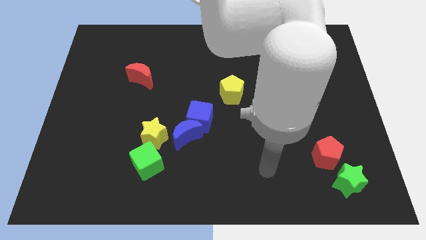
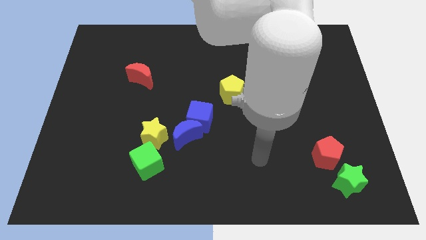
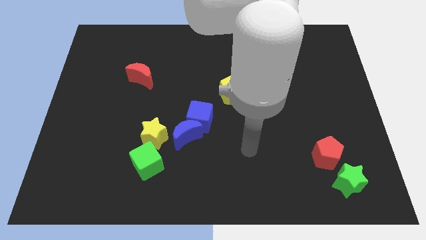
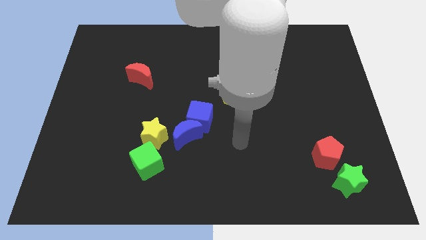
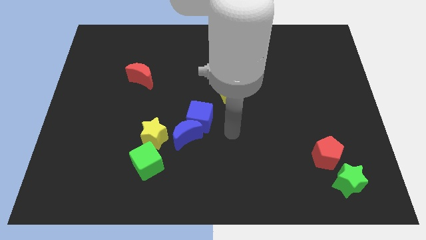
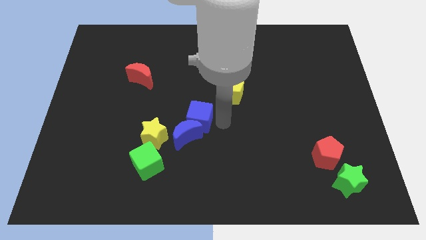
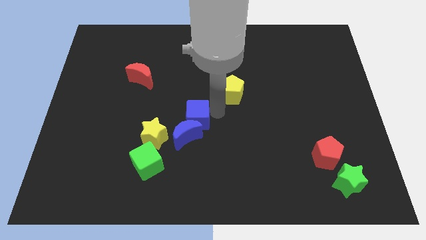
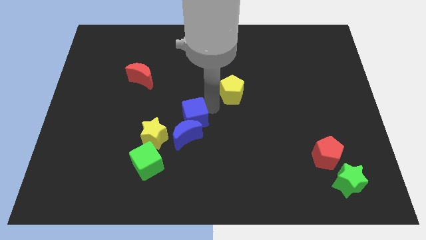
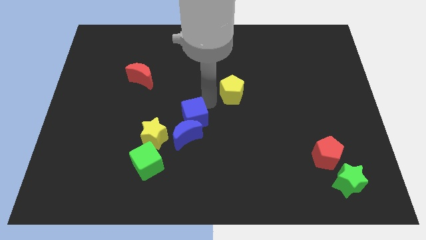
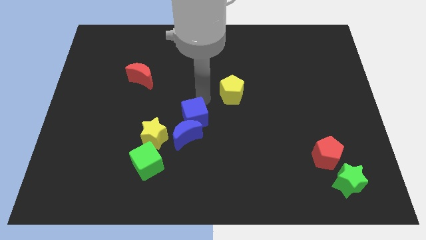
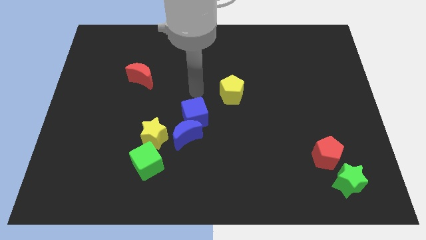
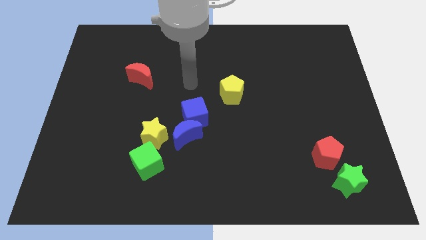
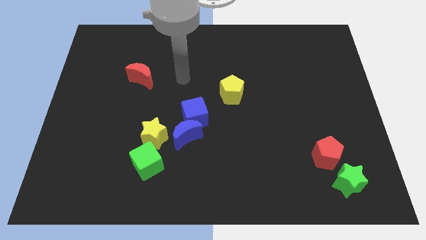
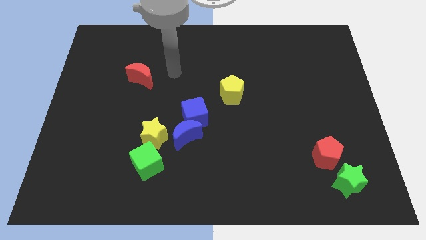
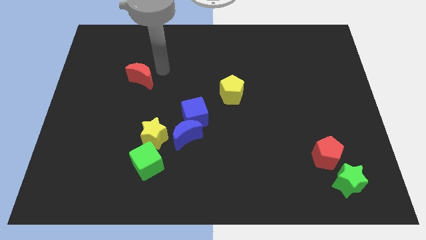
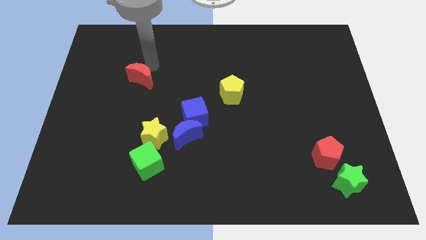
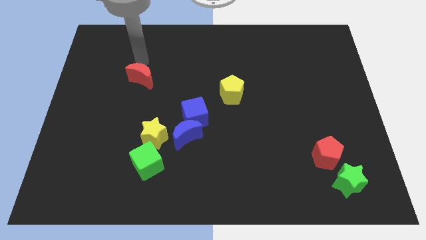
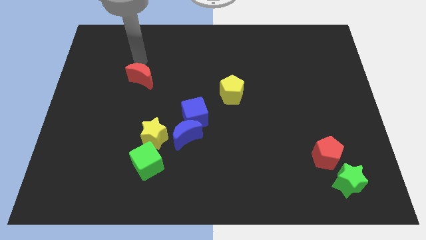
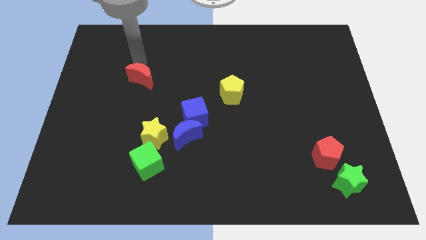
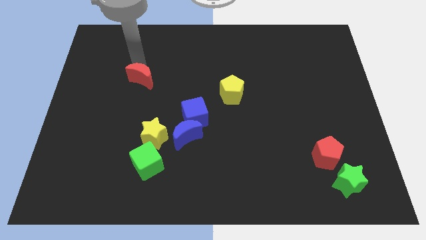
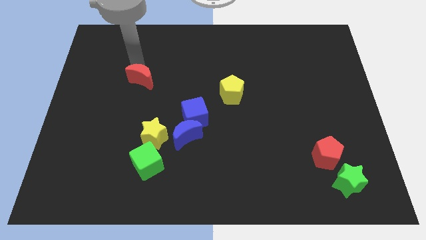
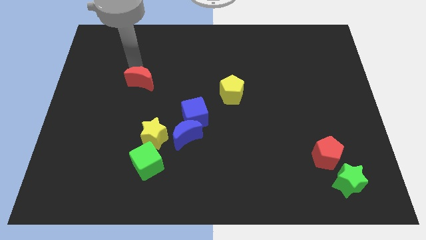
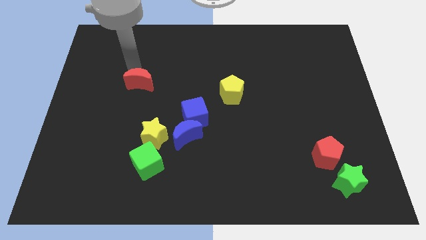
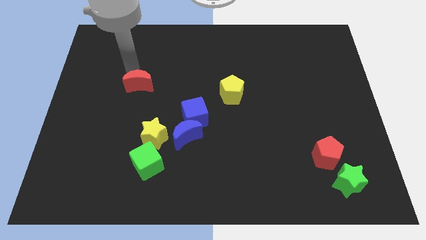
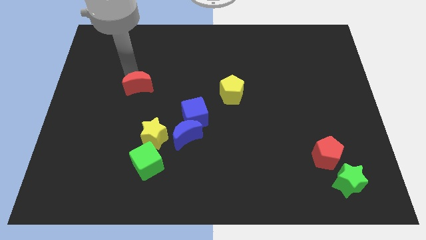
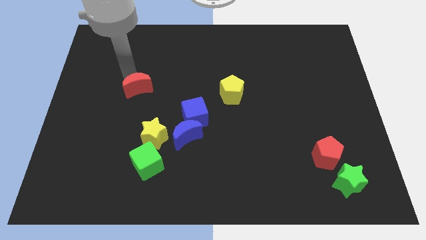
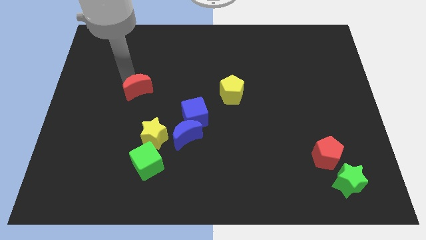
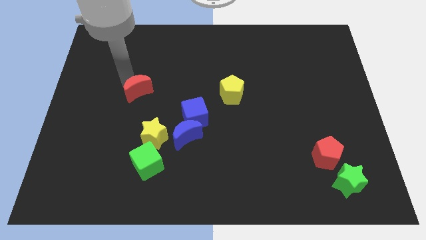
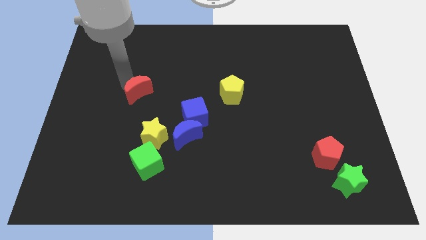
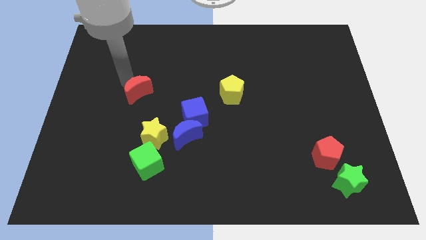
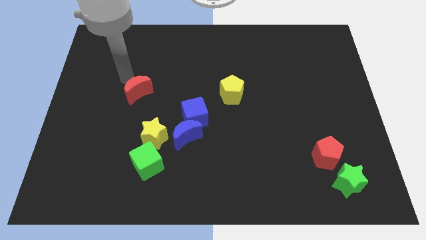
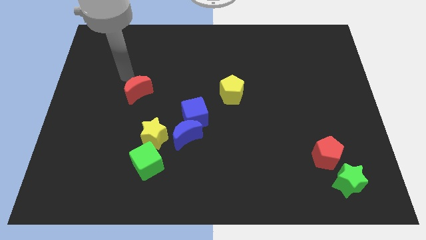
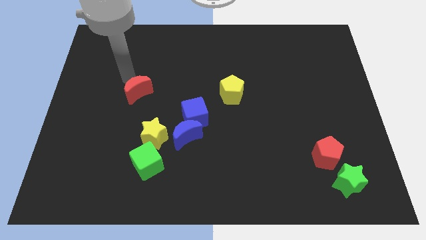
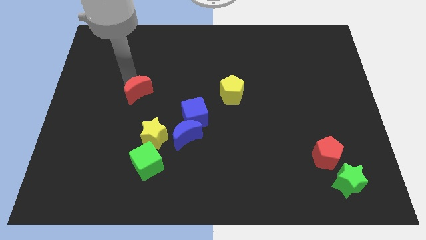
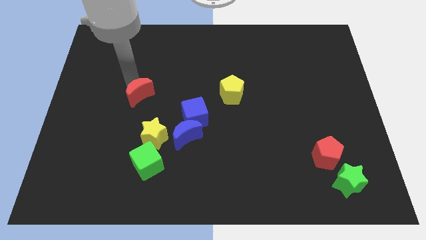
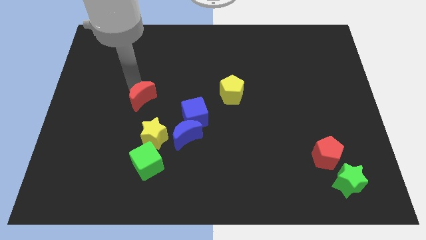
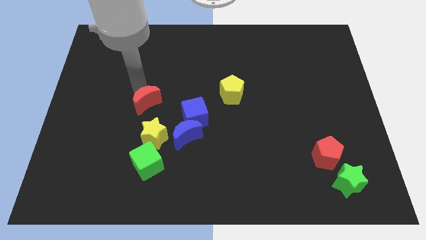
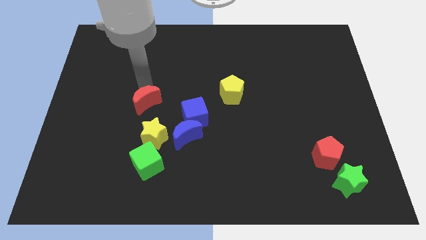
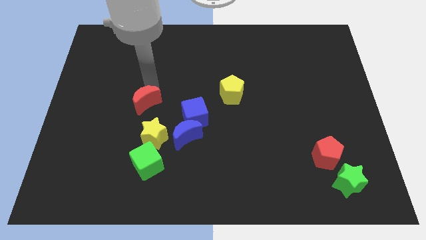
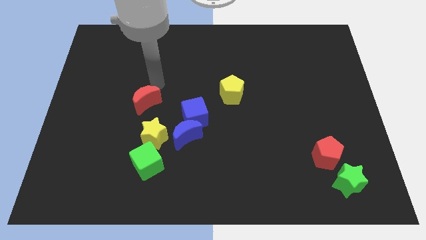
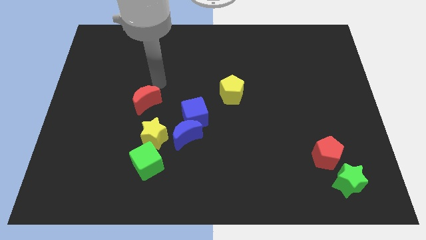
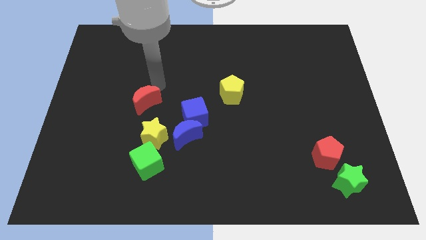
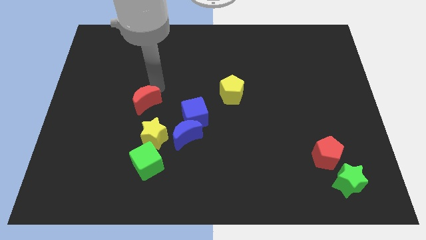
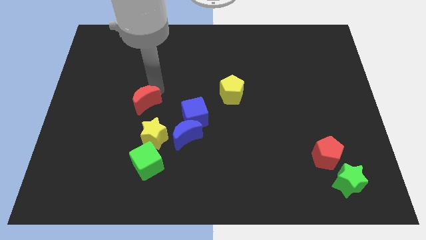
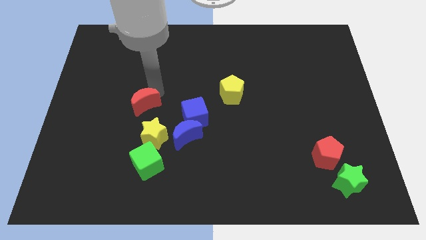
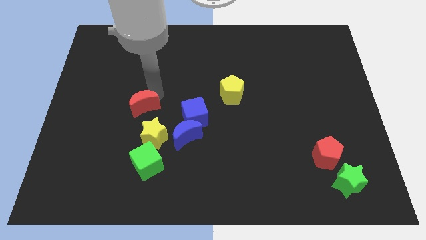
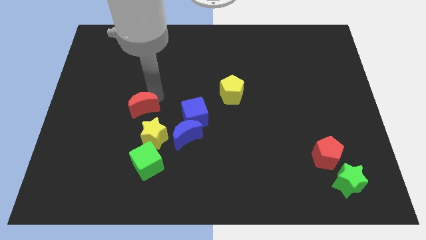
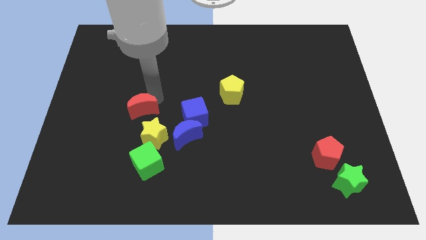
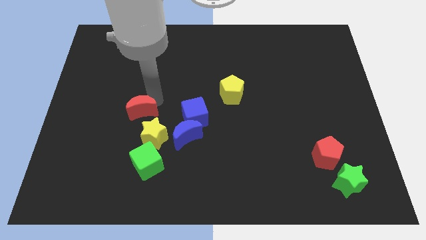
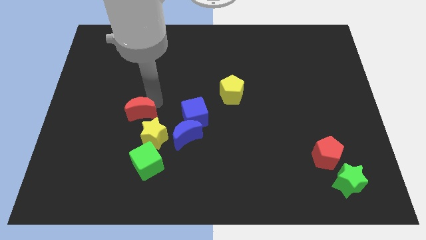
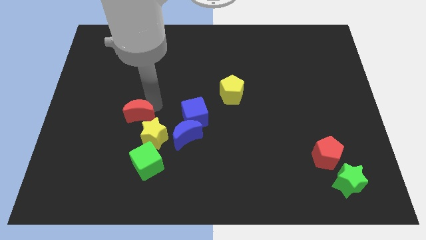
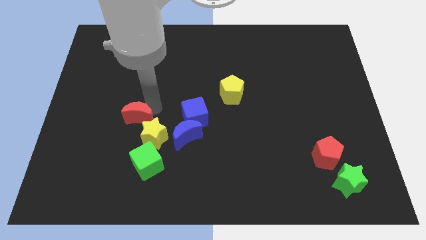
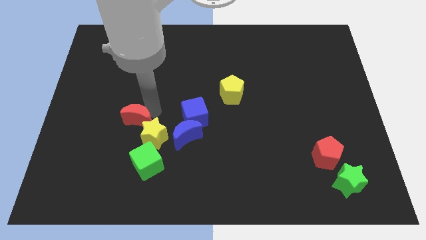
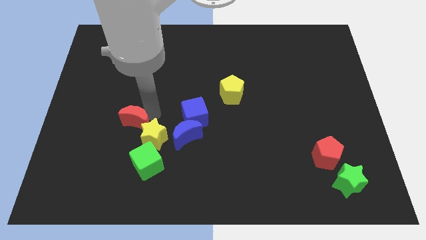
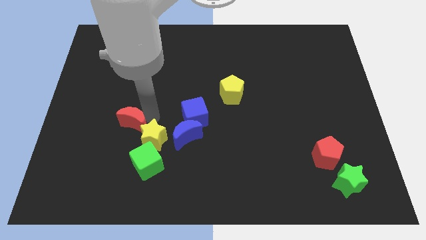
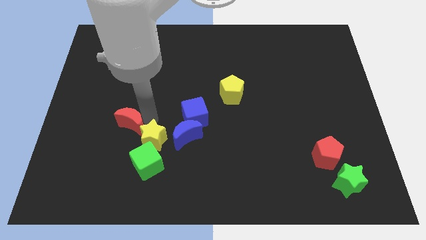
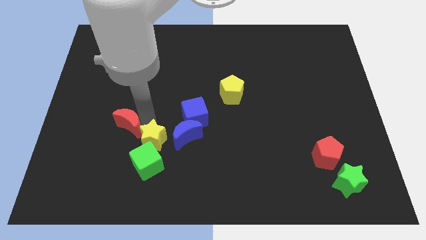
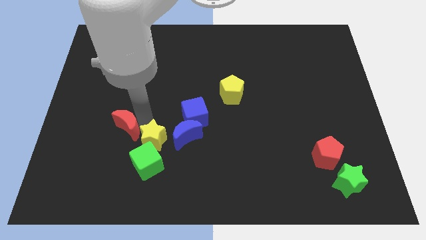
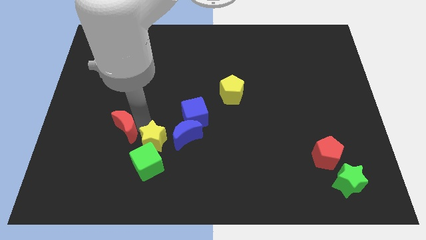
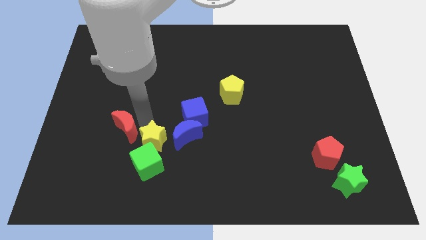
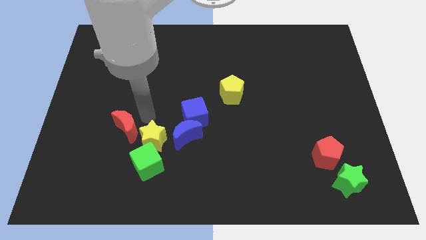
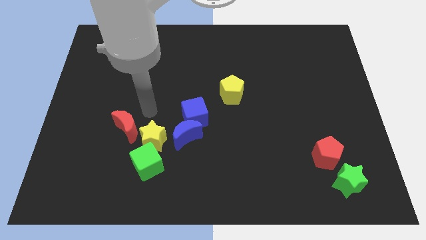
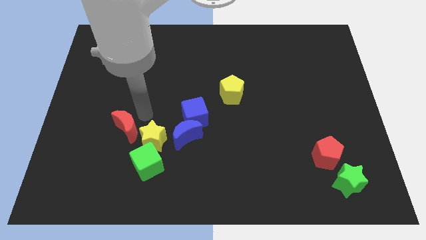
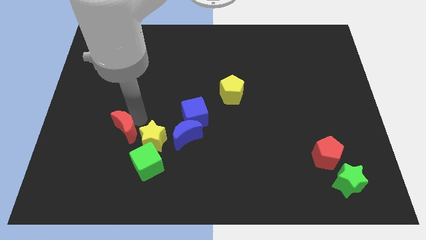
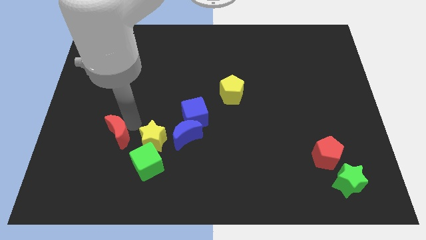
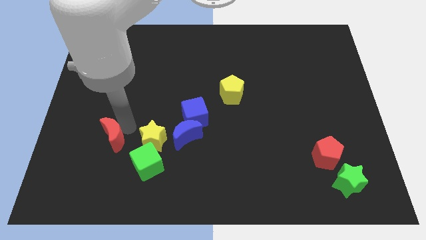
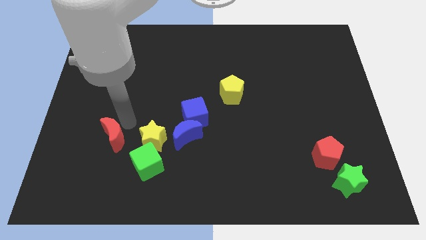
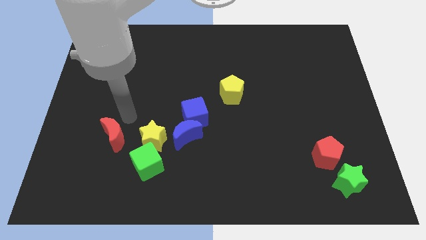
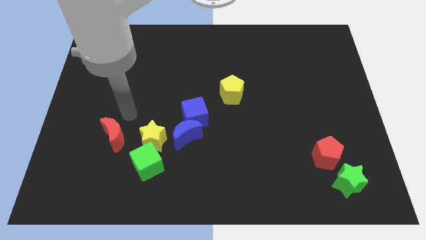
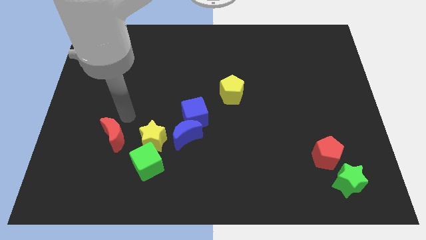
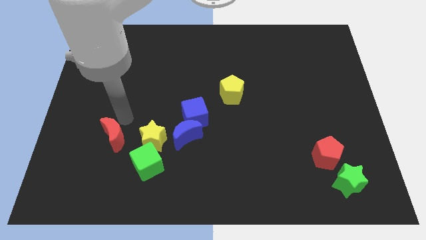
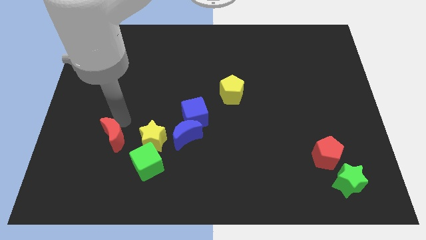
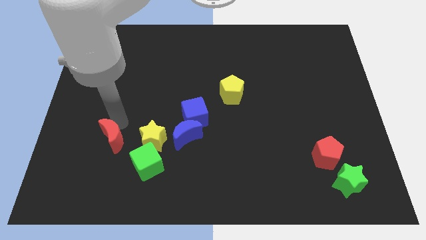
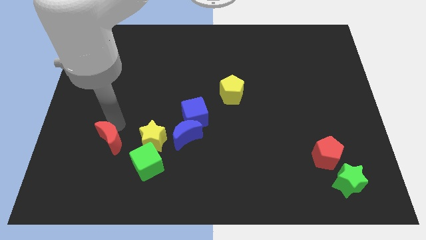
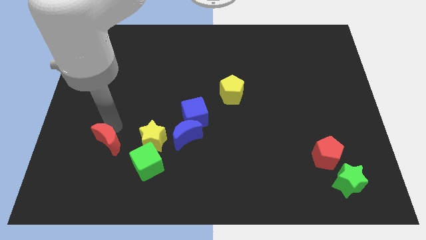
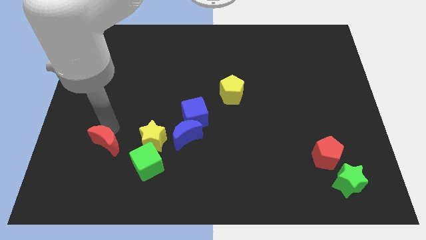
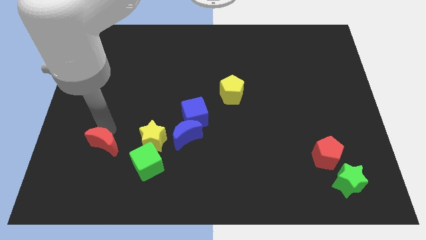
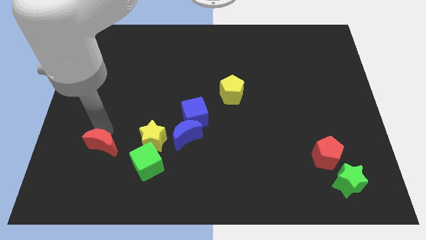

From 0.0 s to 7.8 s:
slide the red moon to the left side of the green cube
